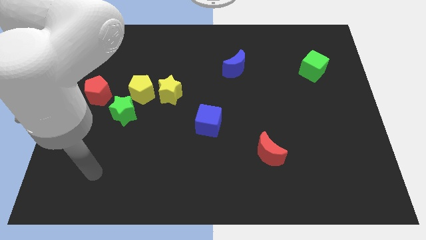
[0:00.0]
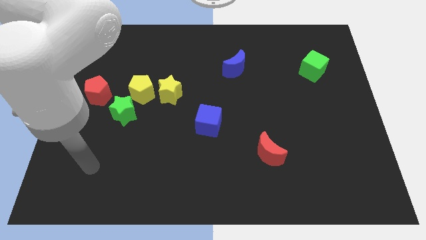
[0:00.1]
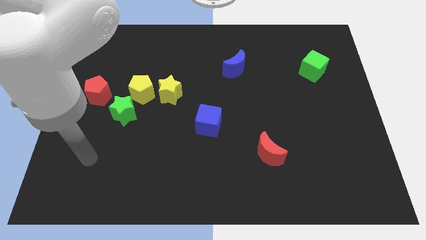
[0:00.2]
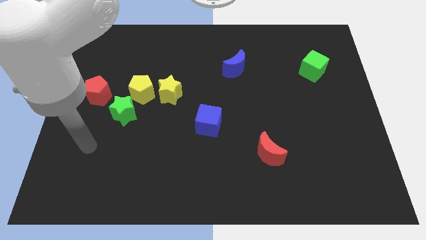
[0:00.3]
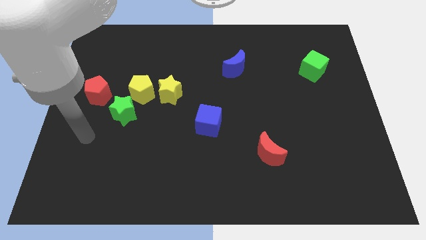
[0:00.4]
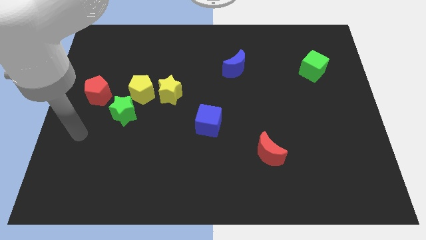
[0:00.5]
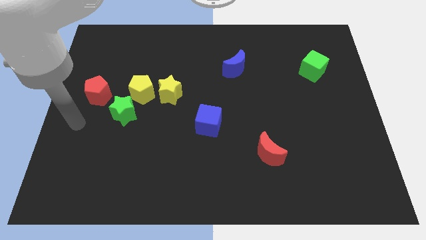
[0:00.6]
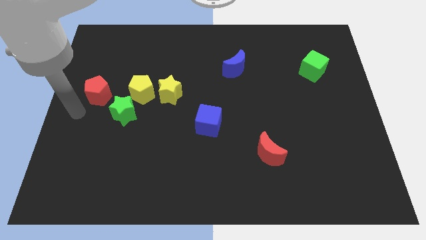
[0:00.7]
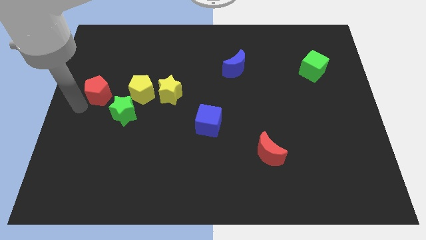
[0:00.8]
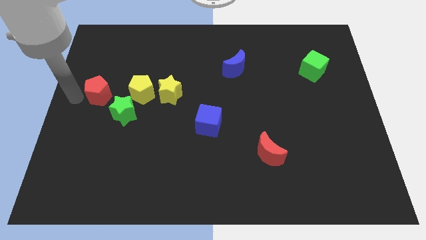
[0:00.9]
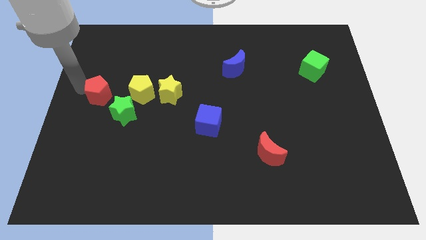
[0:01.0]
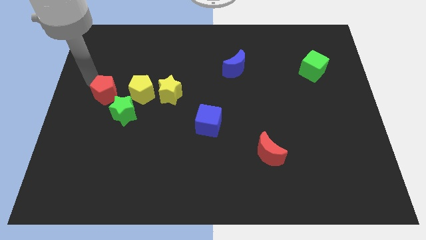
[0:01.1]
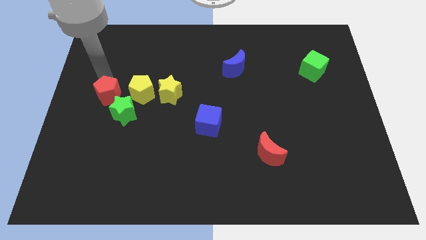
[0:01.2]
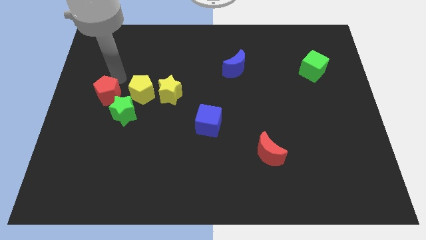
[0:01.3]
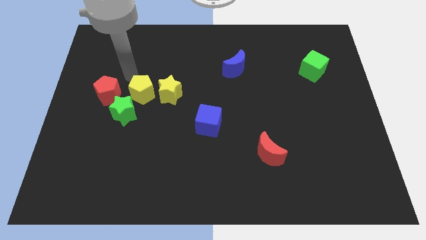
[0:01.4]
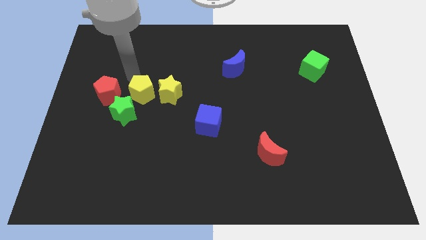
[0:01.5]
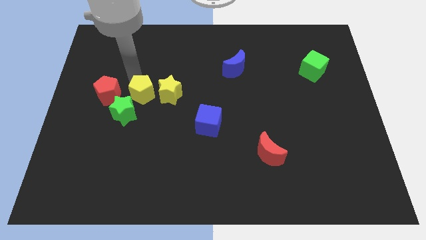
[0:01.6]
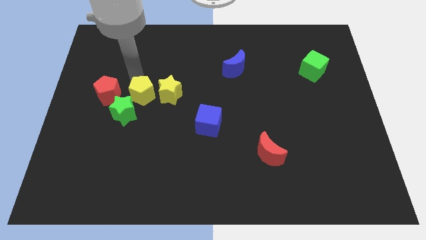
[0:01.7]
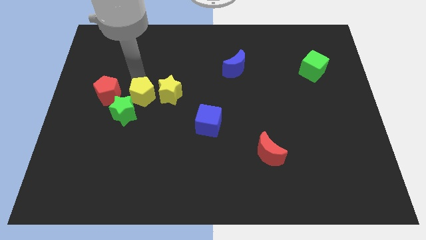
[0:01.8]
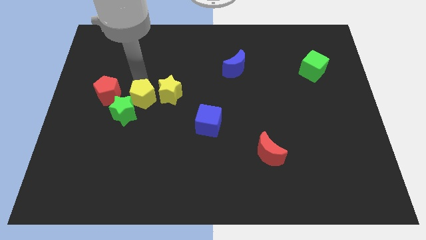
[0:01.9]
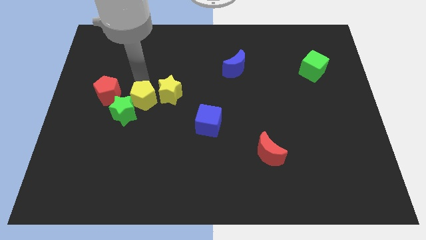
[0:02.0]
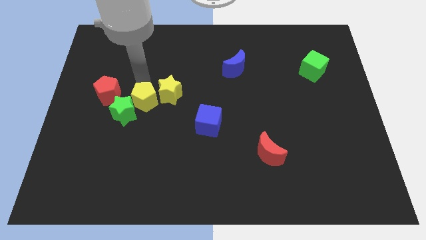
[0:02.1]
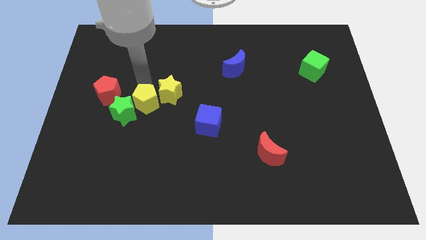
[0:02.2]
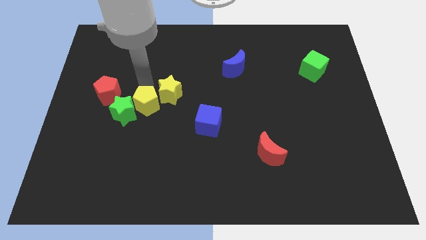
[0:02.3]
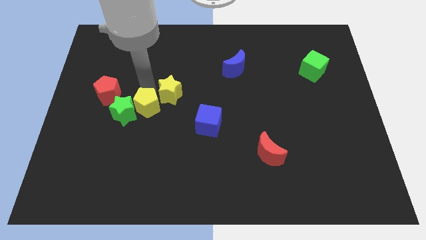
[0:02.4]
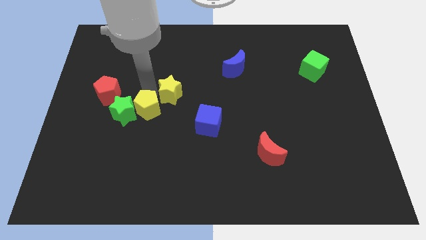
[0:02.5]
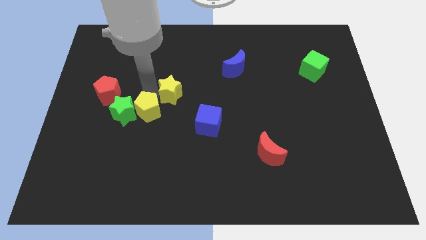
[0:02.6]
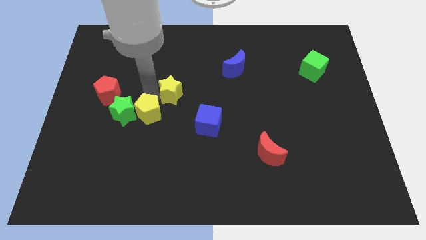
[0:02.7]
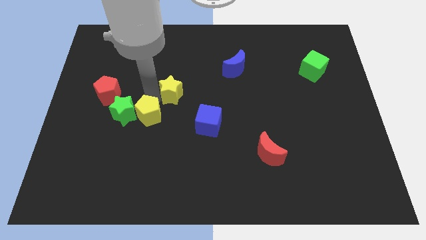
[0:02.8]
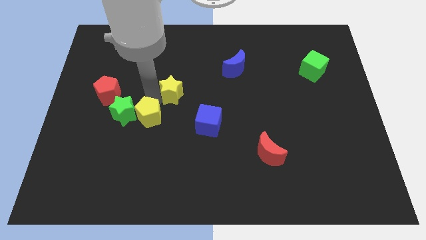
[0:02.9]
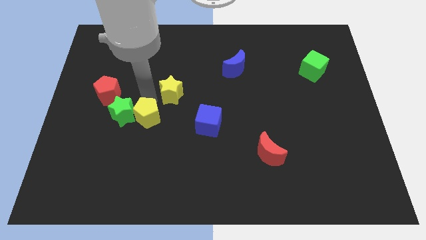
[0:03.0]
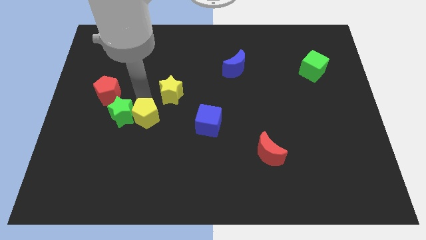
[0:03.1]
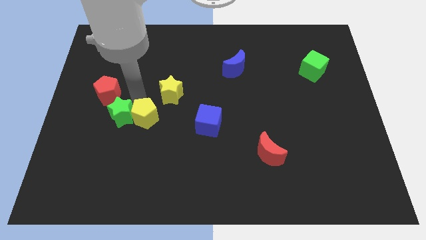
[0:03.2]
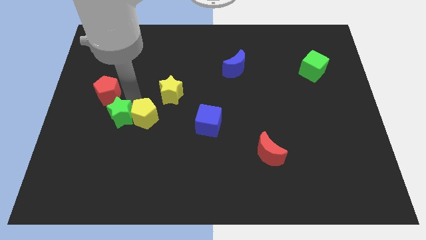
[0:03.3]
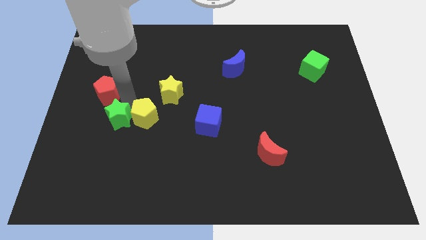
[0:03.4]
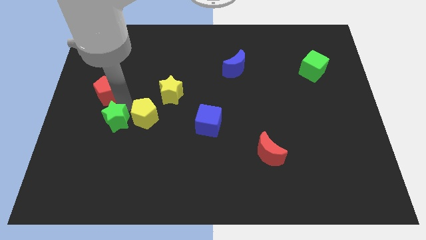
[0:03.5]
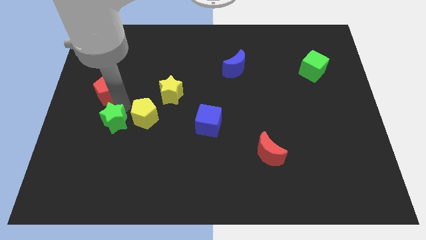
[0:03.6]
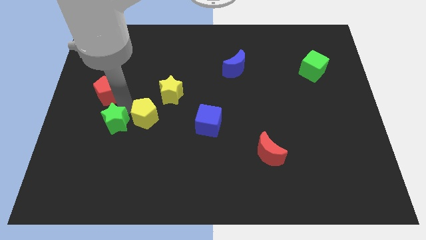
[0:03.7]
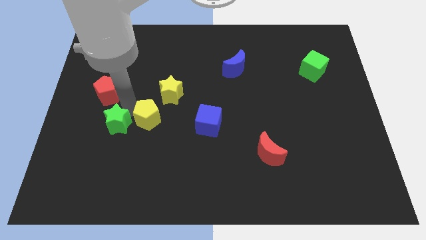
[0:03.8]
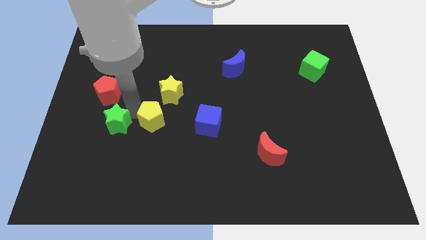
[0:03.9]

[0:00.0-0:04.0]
slightly push the yellow pentagon down and then right

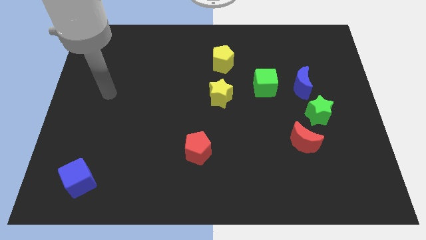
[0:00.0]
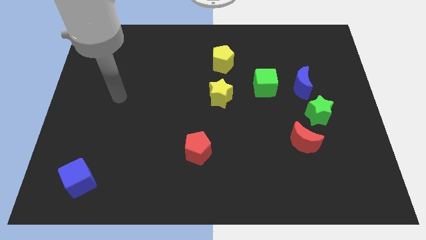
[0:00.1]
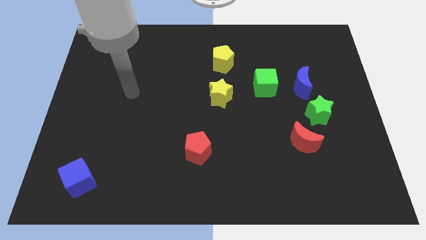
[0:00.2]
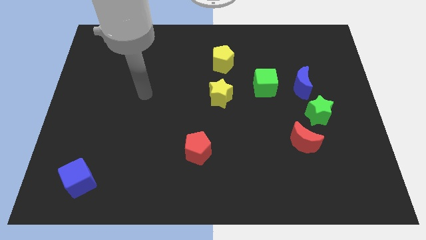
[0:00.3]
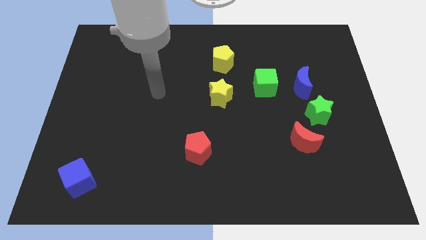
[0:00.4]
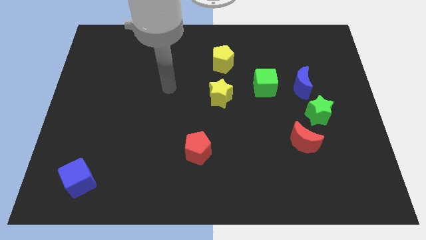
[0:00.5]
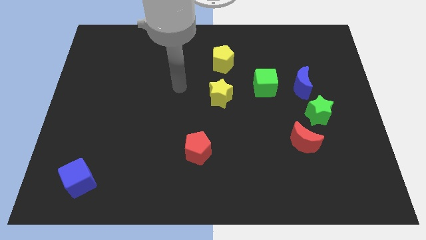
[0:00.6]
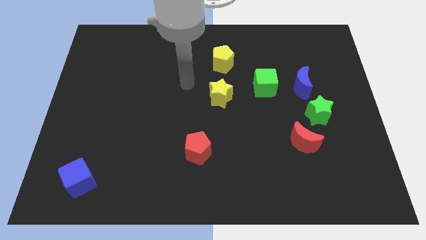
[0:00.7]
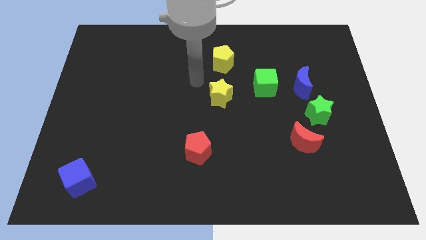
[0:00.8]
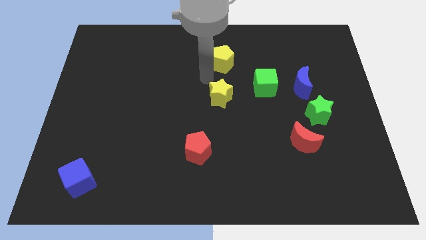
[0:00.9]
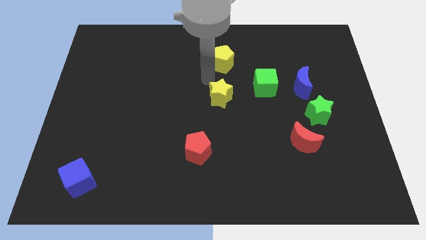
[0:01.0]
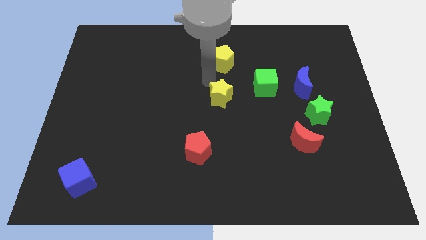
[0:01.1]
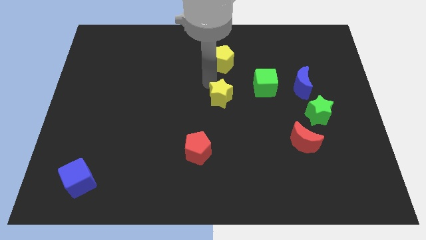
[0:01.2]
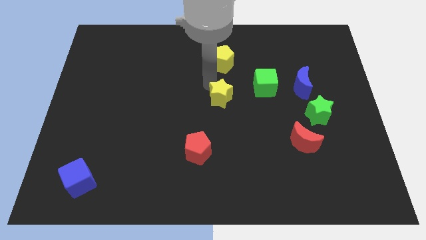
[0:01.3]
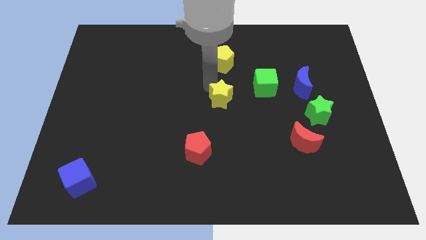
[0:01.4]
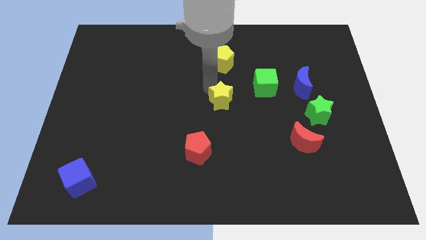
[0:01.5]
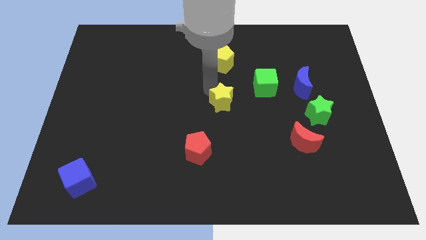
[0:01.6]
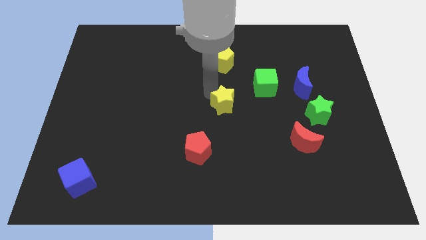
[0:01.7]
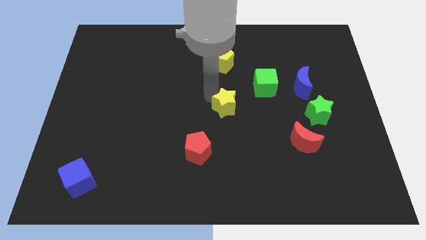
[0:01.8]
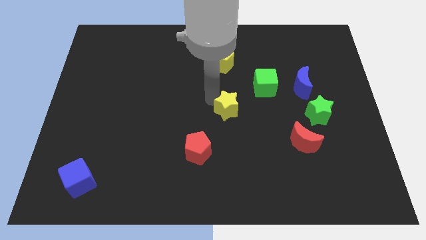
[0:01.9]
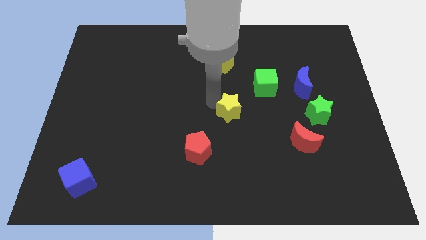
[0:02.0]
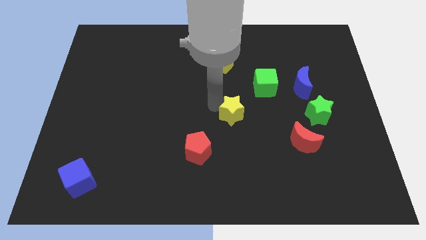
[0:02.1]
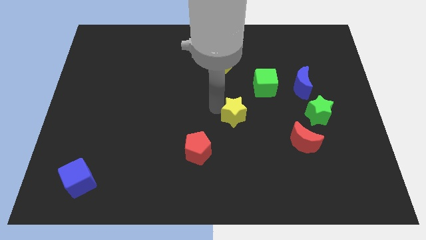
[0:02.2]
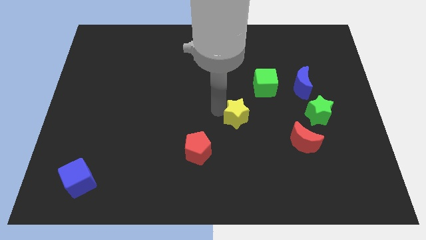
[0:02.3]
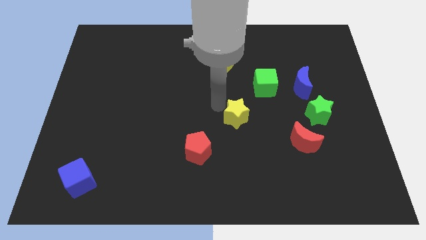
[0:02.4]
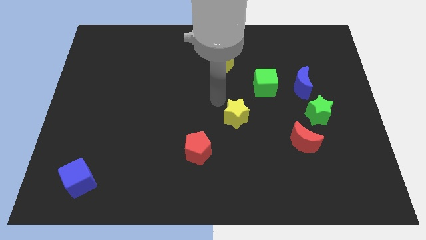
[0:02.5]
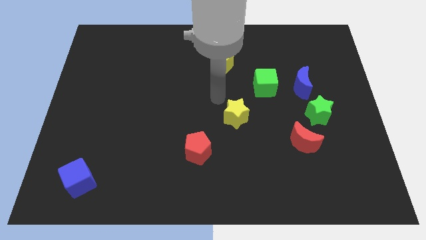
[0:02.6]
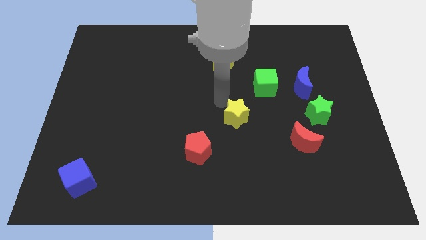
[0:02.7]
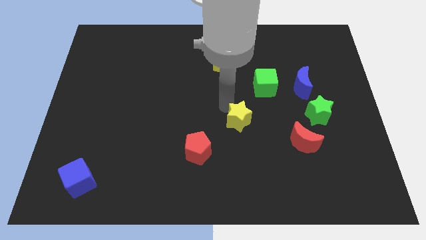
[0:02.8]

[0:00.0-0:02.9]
slightly push the yellow star diagonally down and right

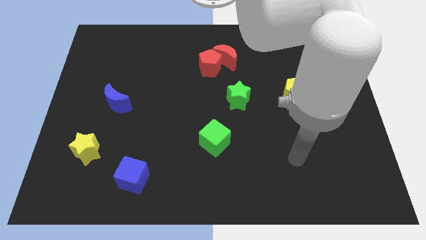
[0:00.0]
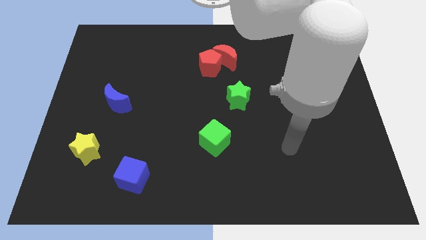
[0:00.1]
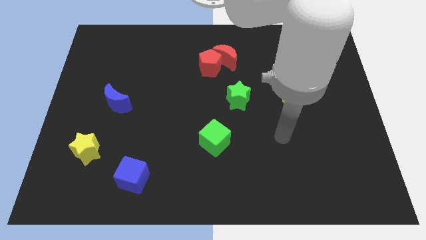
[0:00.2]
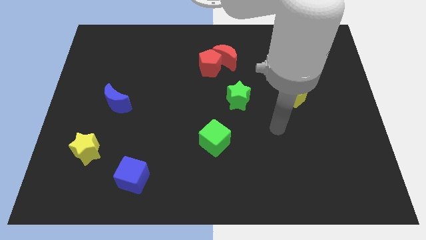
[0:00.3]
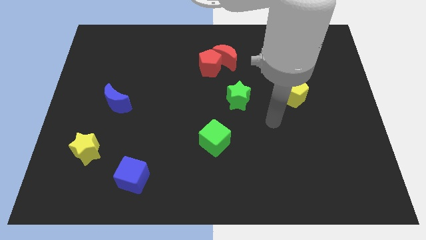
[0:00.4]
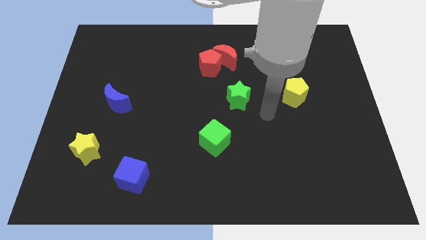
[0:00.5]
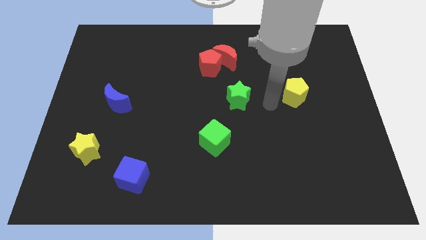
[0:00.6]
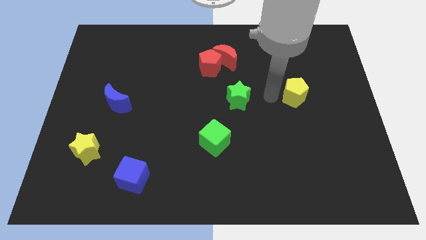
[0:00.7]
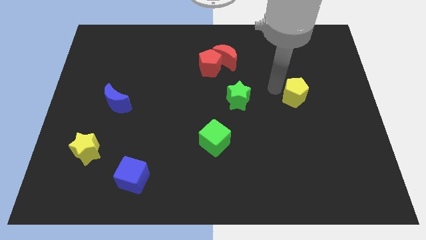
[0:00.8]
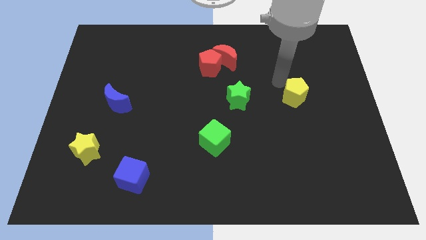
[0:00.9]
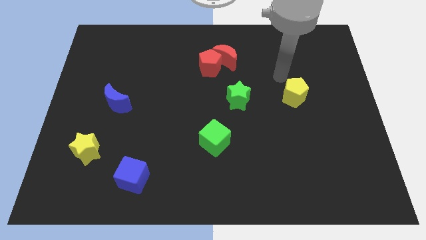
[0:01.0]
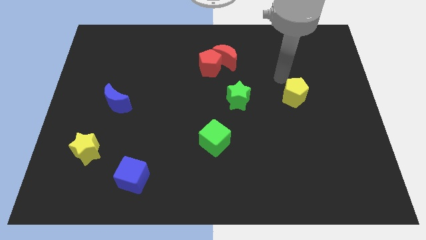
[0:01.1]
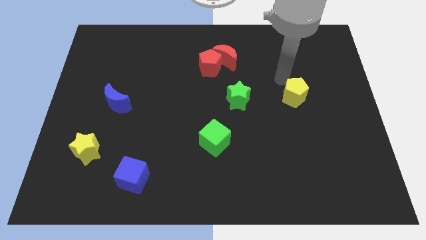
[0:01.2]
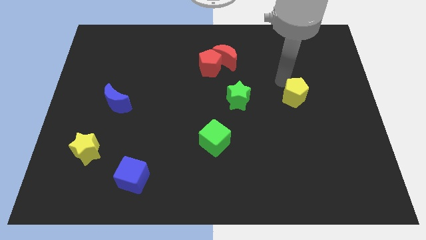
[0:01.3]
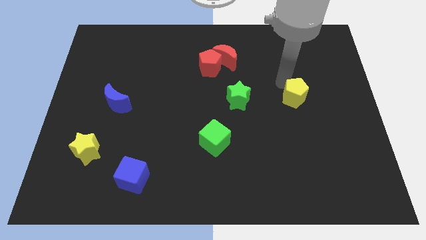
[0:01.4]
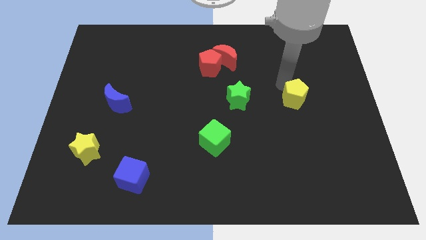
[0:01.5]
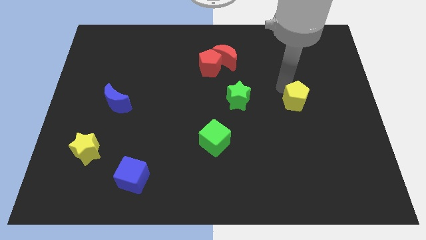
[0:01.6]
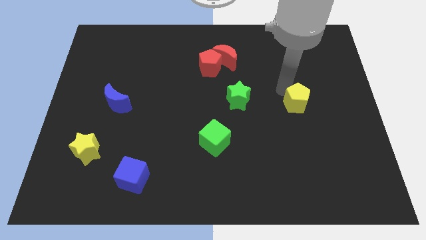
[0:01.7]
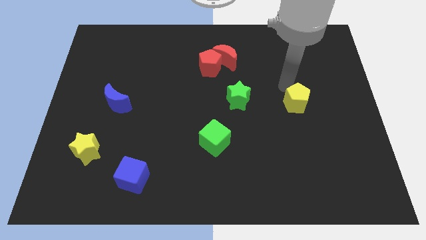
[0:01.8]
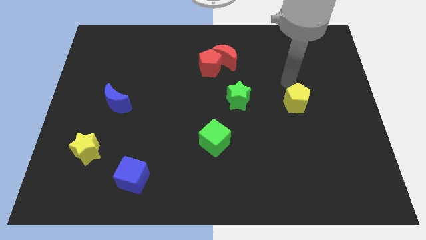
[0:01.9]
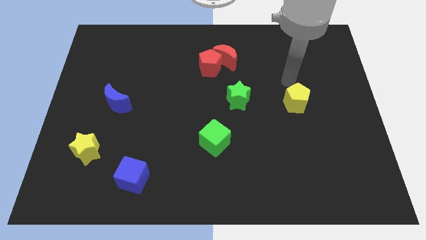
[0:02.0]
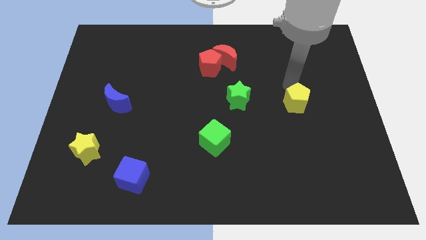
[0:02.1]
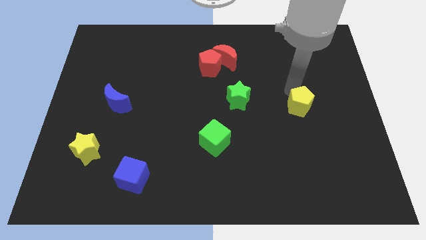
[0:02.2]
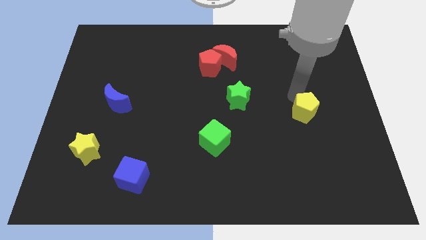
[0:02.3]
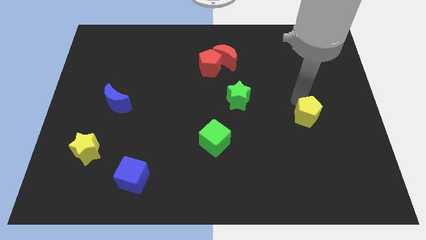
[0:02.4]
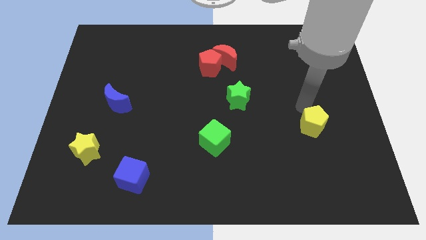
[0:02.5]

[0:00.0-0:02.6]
slightly slide the yellow pentagon downwards
